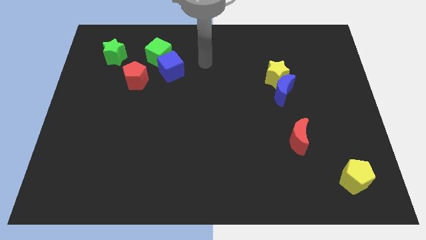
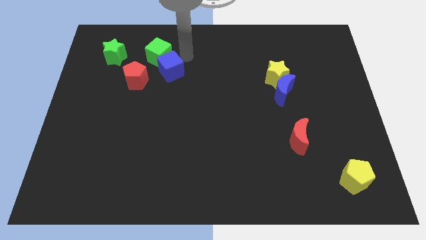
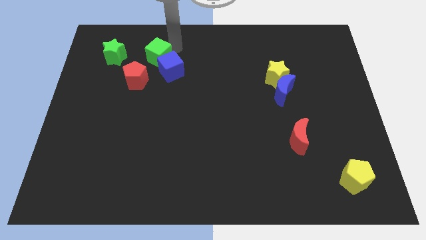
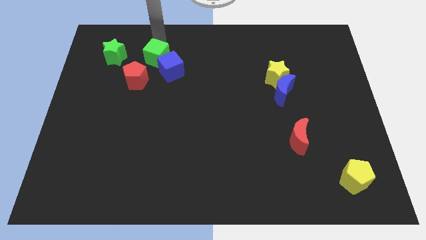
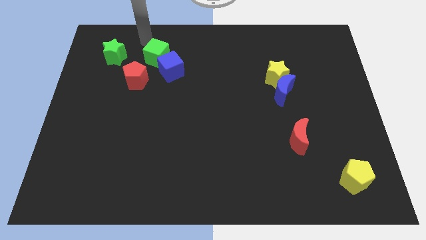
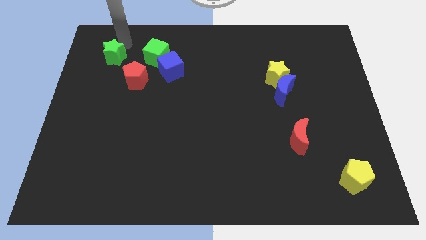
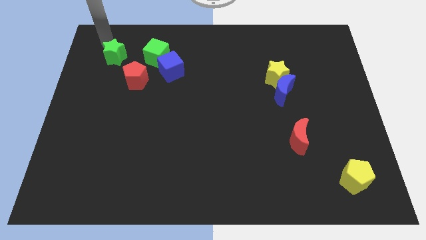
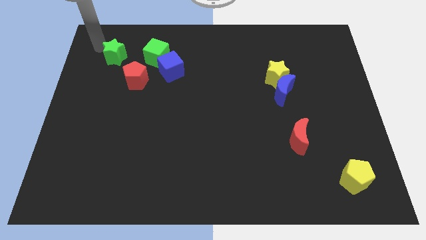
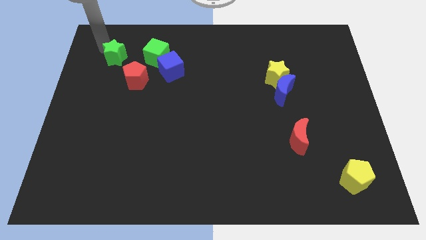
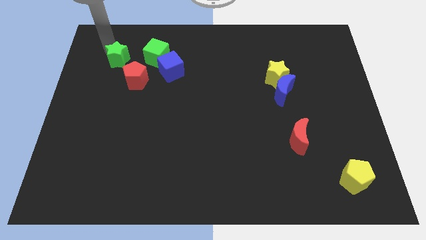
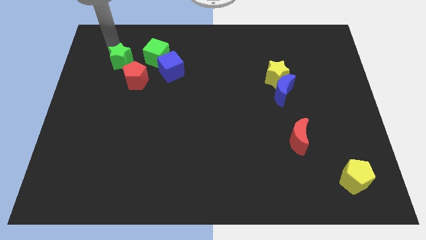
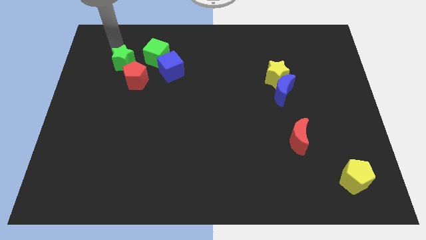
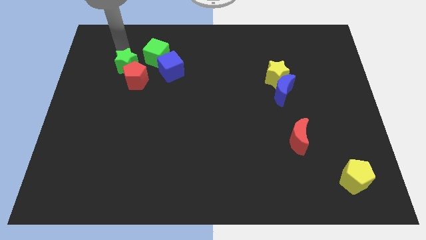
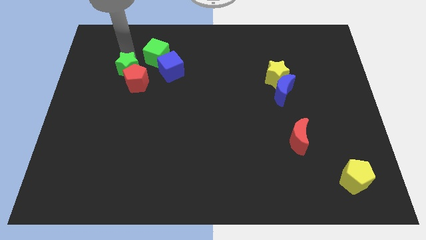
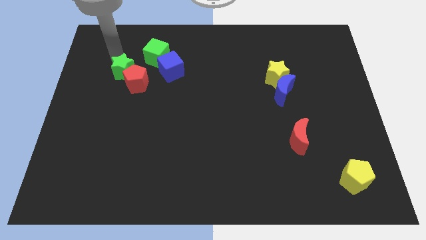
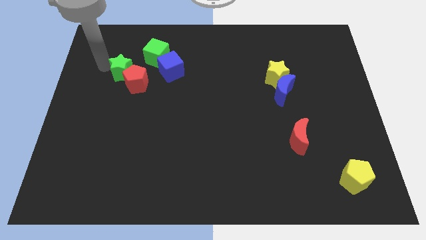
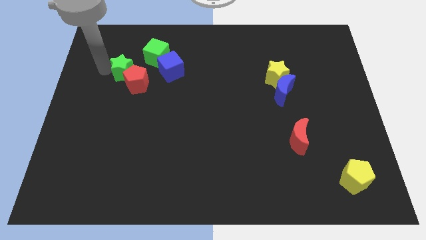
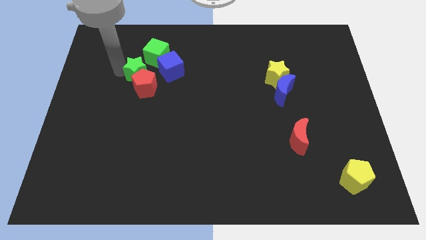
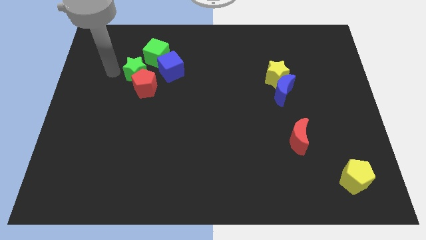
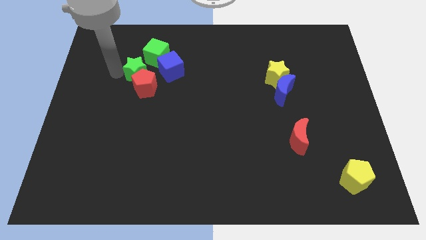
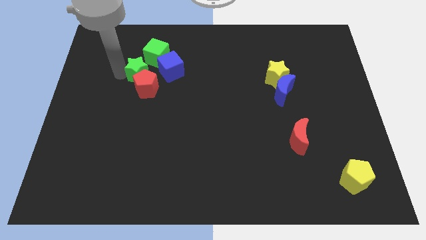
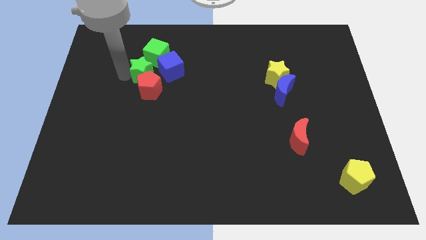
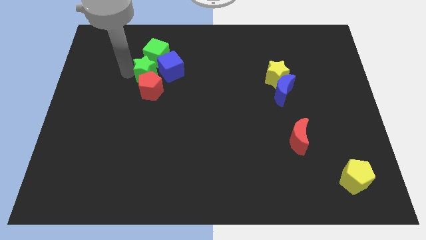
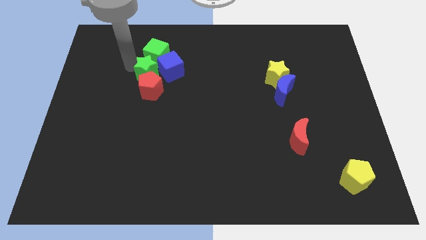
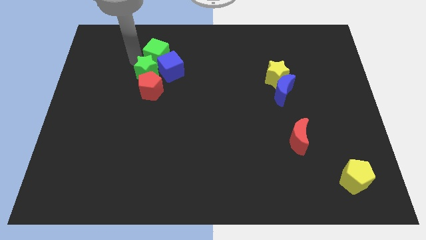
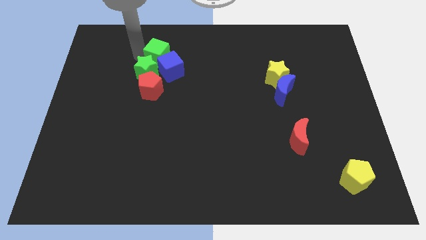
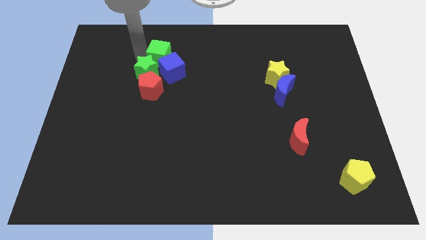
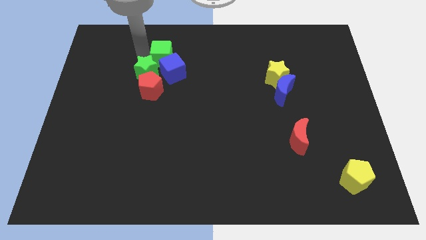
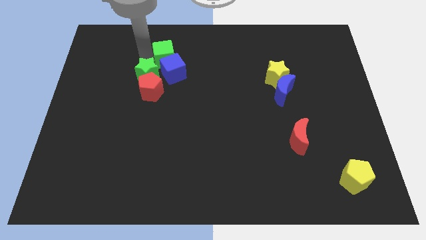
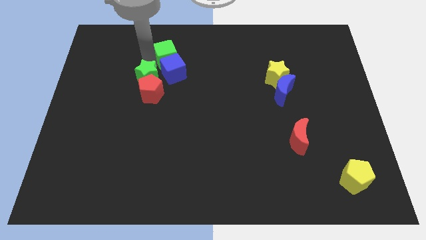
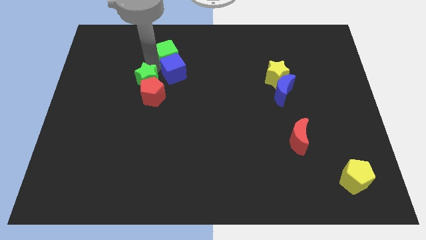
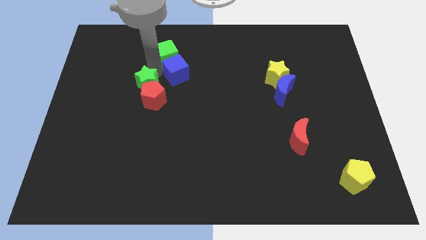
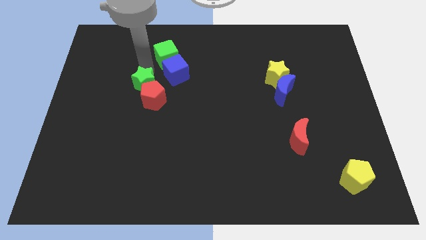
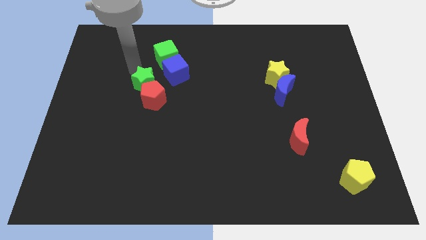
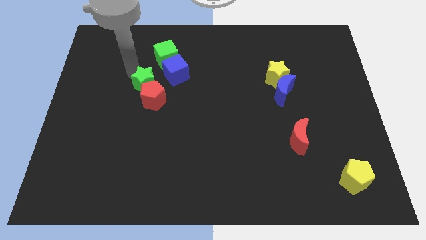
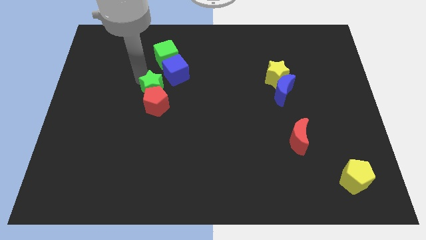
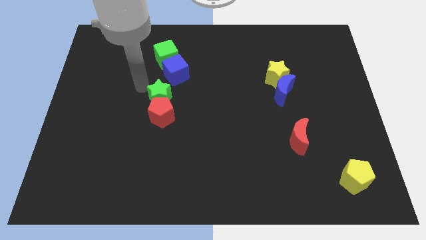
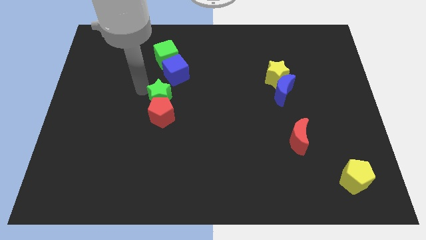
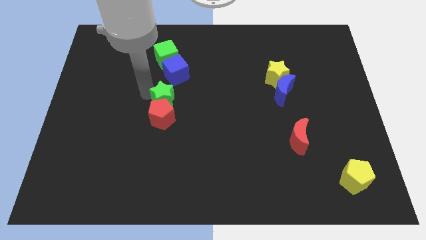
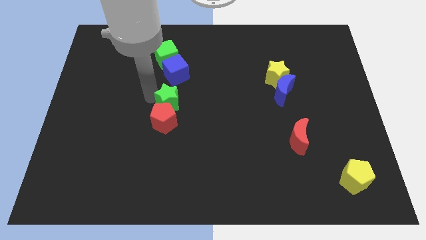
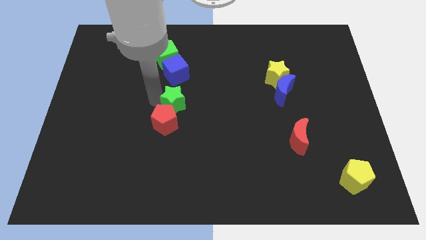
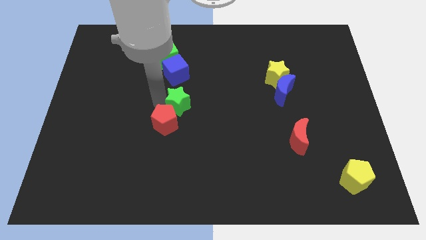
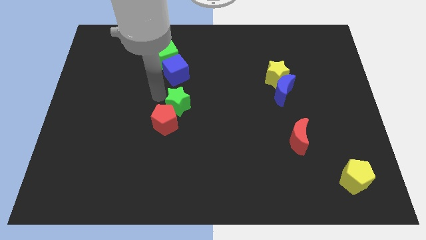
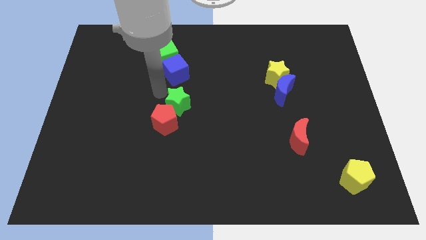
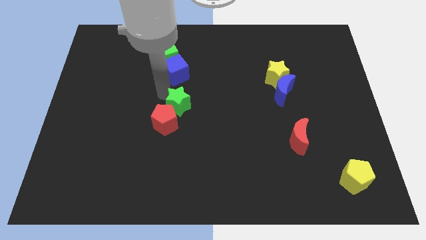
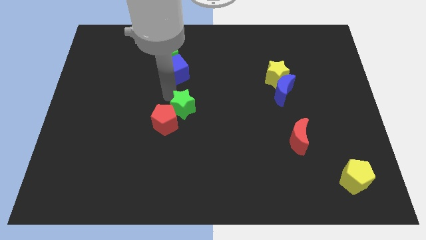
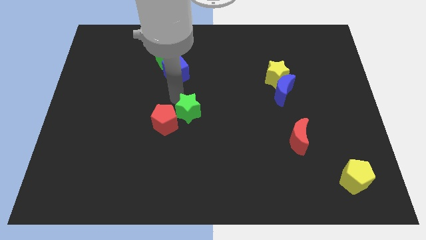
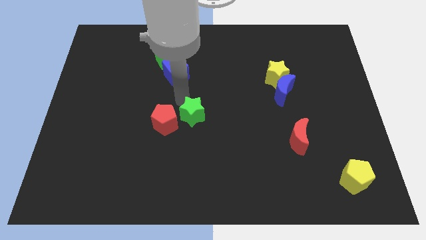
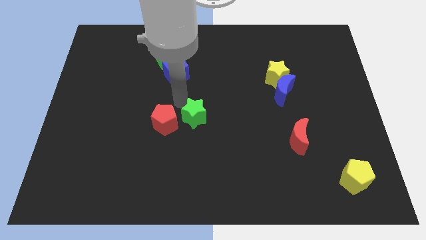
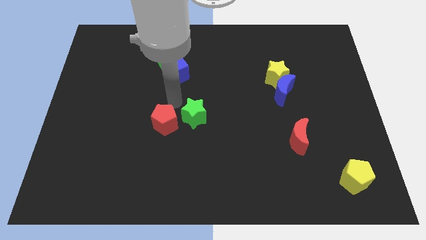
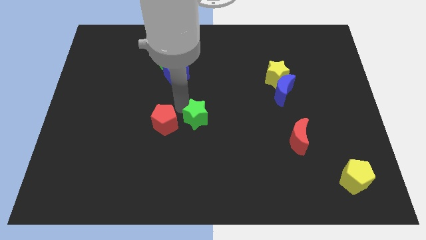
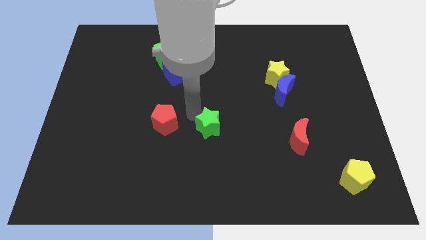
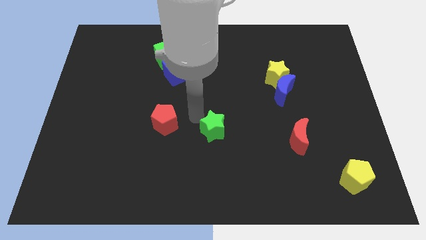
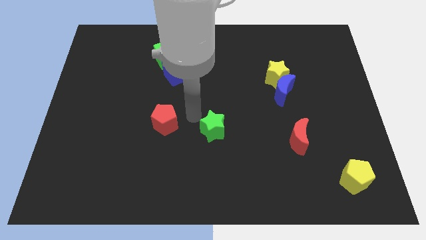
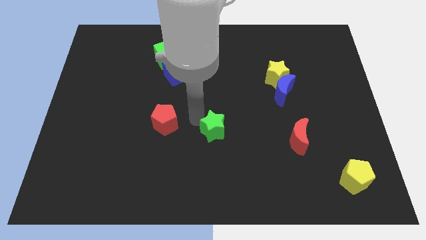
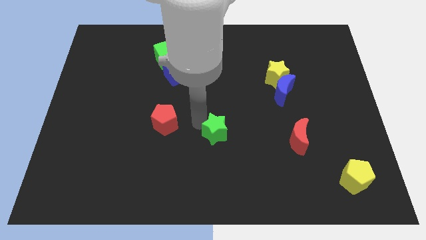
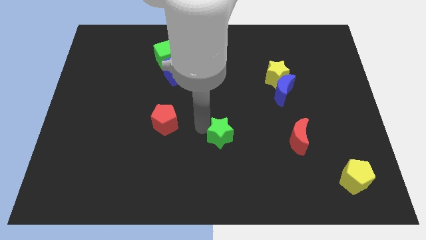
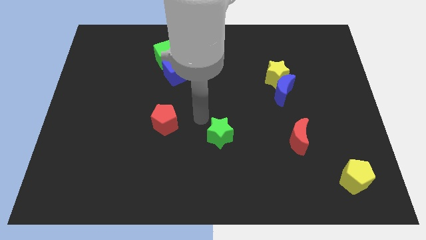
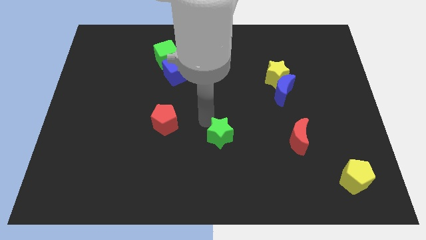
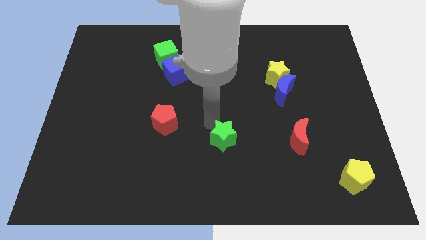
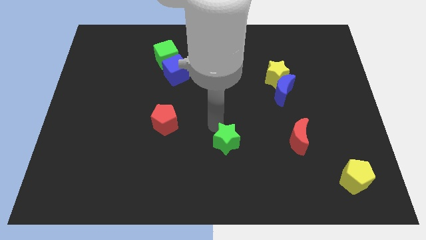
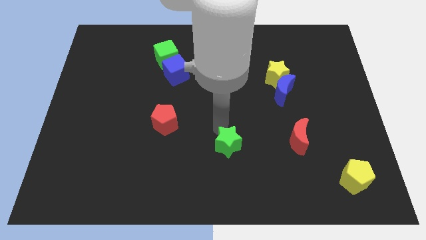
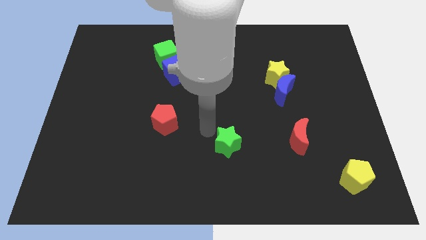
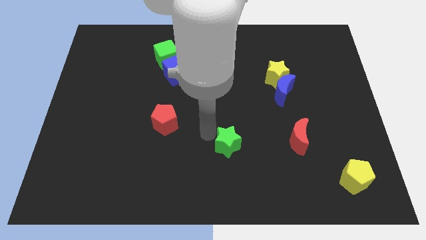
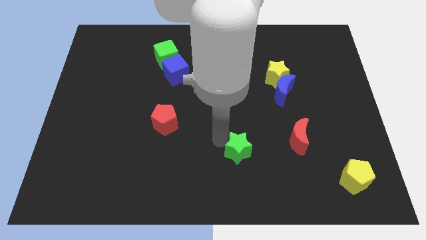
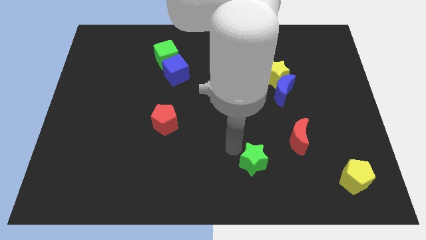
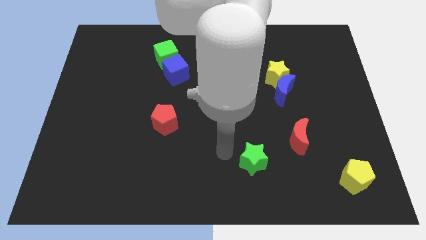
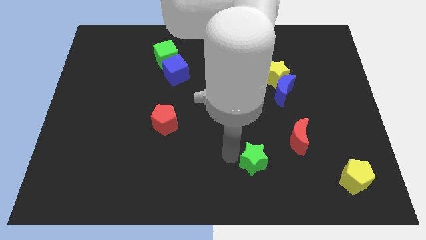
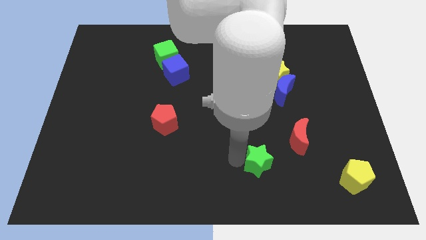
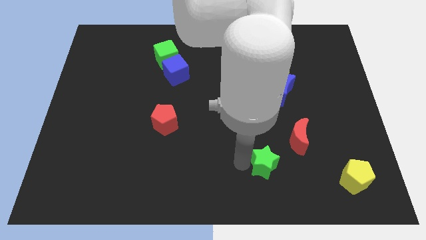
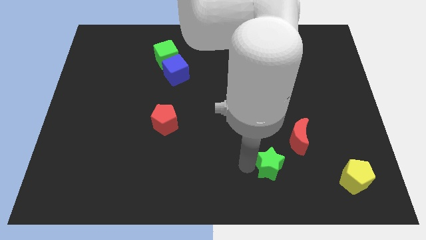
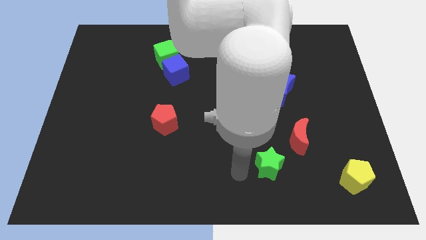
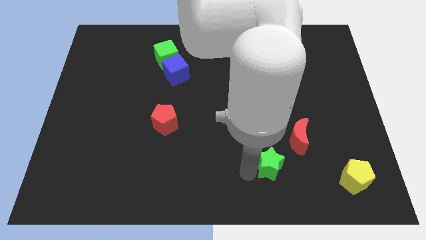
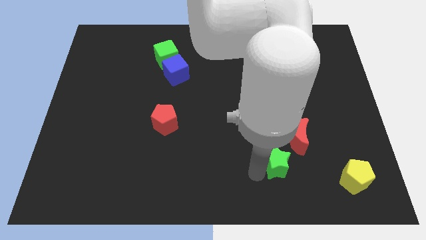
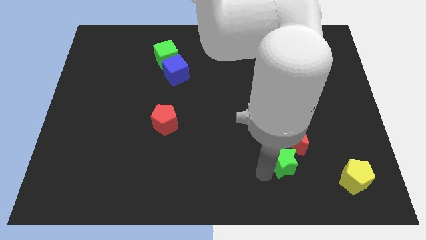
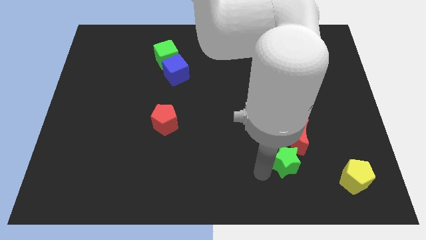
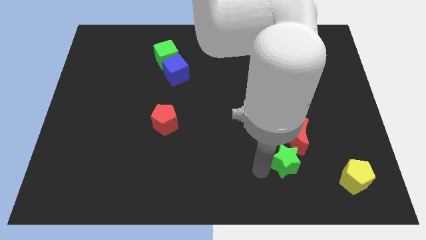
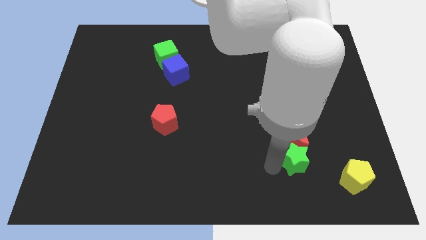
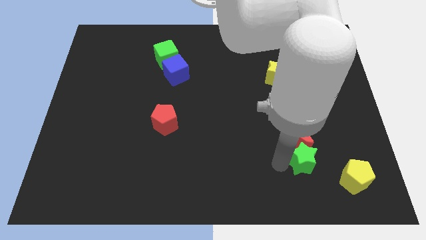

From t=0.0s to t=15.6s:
slide the green star to the bottom right side of the red moon
